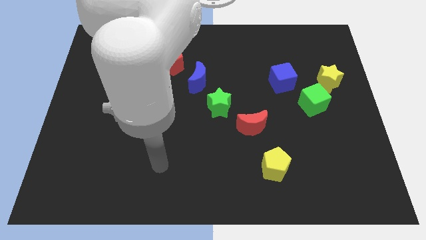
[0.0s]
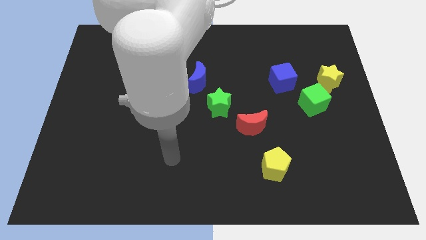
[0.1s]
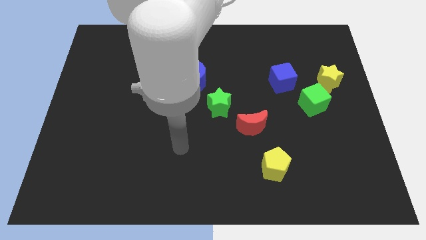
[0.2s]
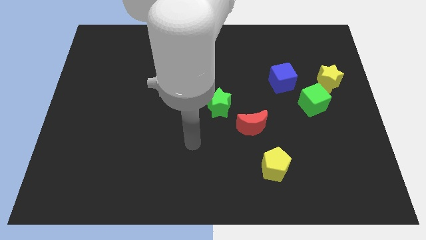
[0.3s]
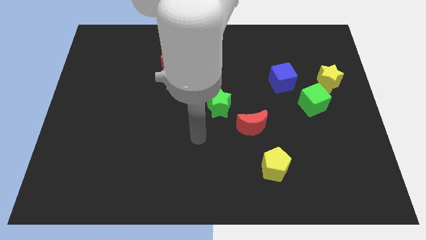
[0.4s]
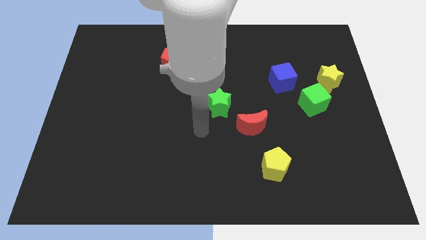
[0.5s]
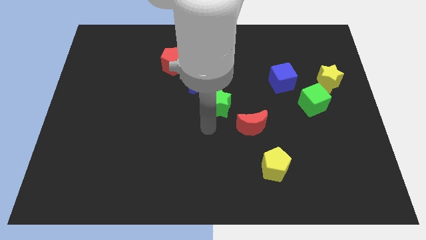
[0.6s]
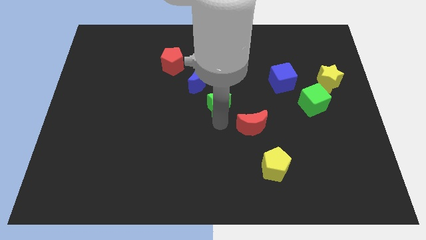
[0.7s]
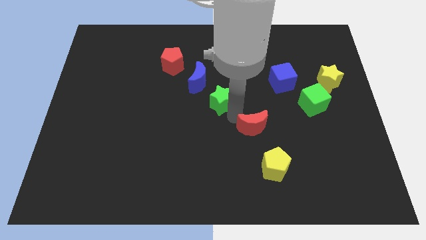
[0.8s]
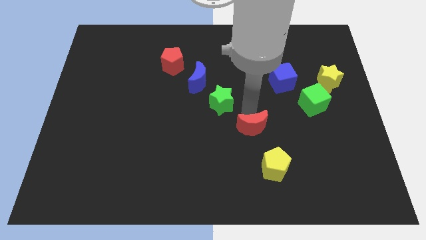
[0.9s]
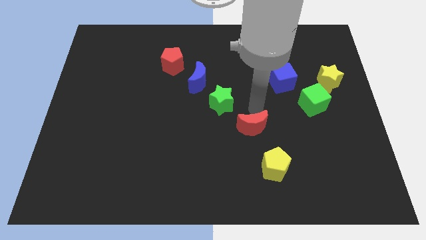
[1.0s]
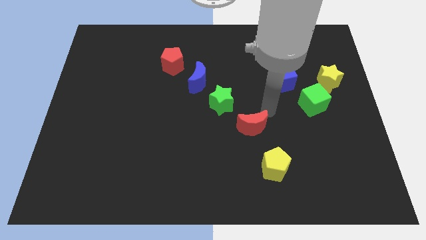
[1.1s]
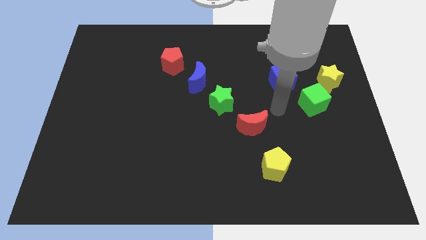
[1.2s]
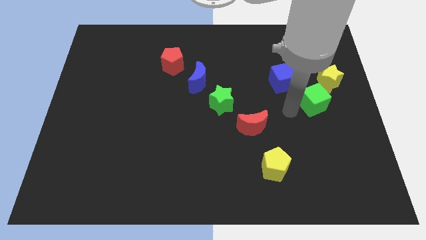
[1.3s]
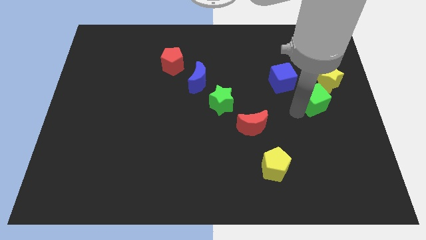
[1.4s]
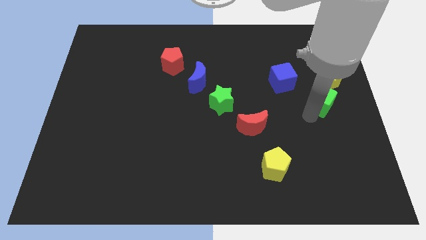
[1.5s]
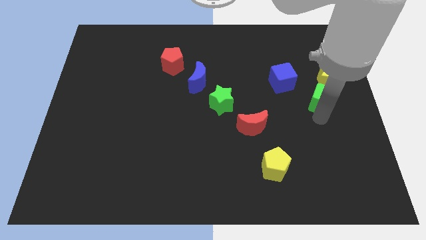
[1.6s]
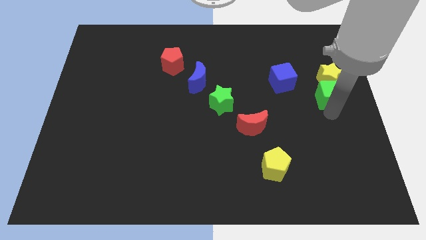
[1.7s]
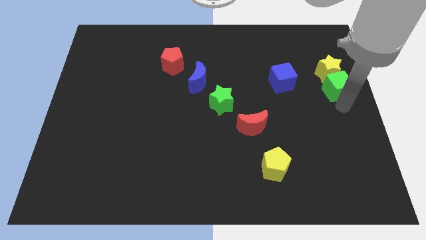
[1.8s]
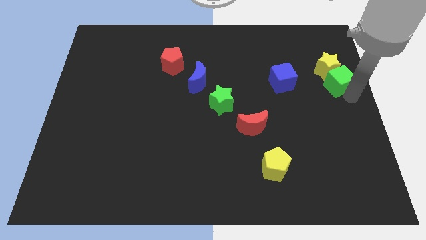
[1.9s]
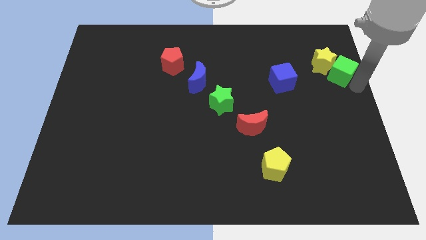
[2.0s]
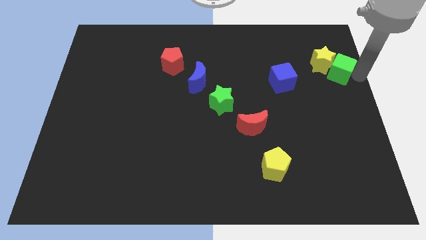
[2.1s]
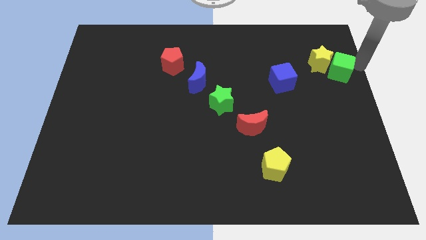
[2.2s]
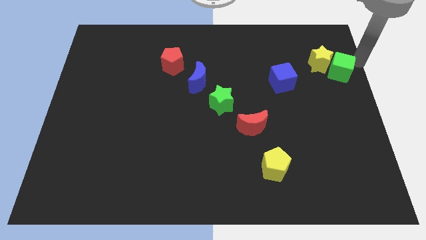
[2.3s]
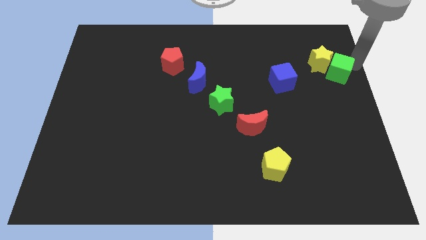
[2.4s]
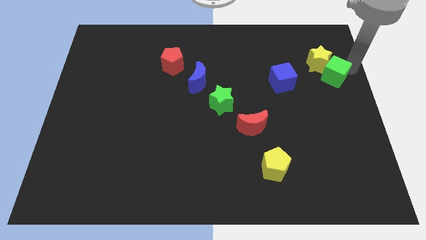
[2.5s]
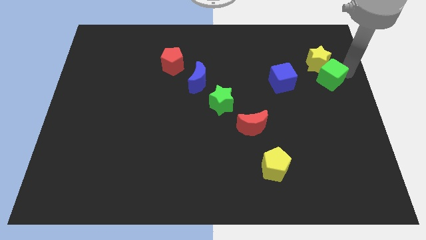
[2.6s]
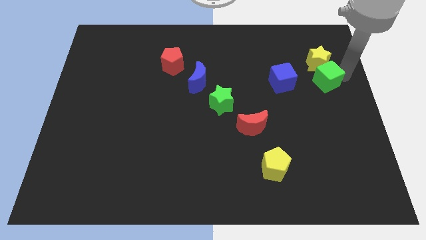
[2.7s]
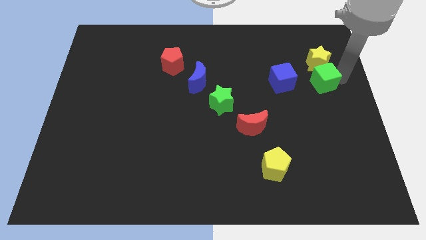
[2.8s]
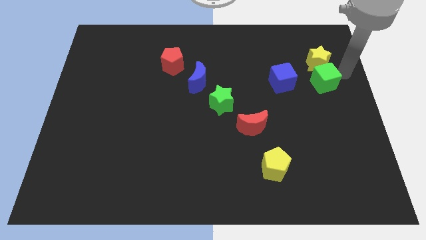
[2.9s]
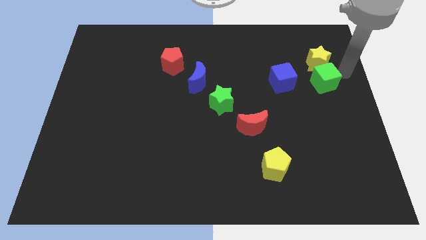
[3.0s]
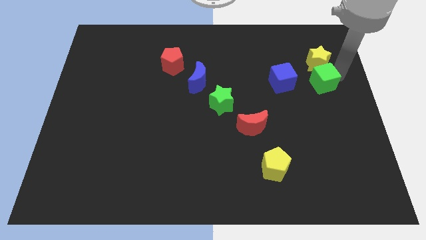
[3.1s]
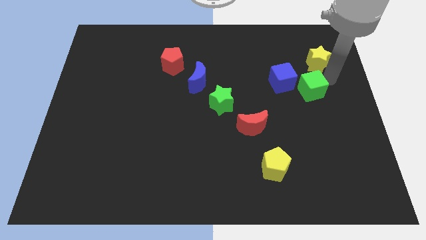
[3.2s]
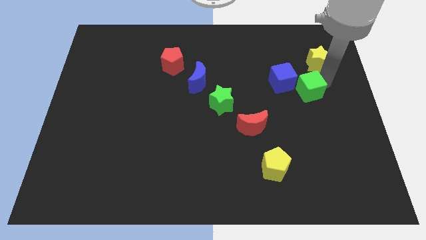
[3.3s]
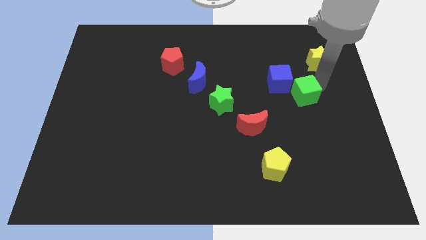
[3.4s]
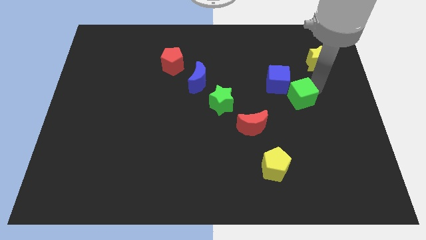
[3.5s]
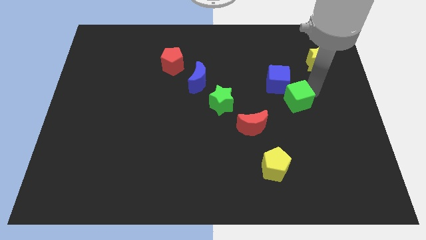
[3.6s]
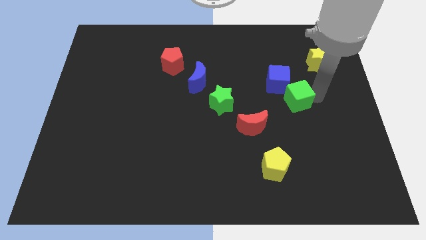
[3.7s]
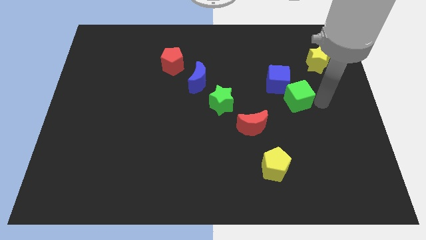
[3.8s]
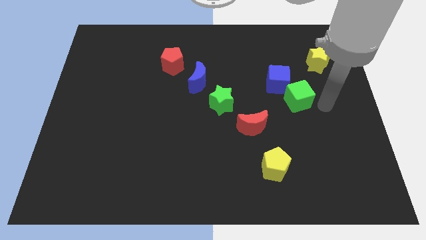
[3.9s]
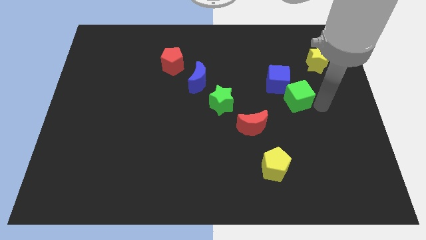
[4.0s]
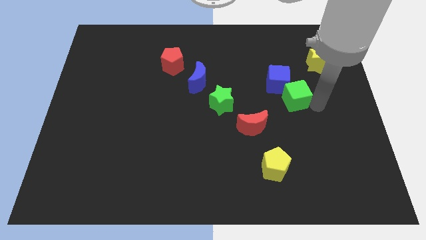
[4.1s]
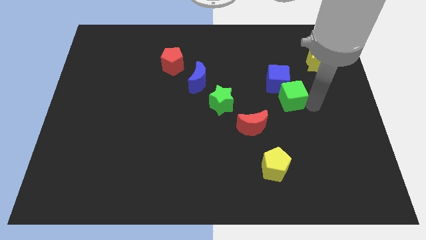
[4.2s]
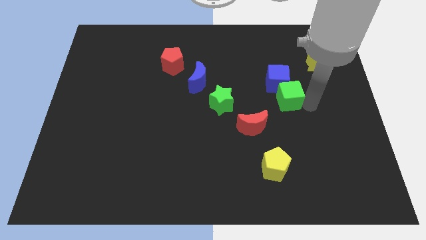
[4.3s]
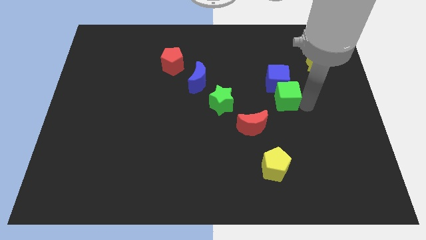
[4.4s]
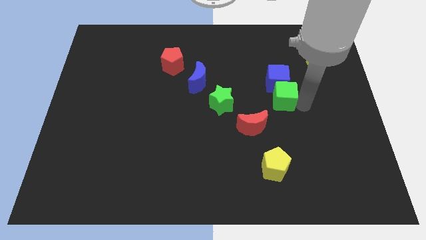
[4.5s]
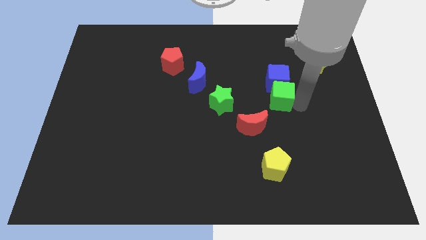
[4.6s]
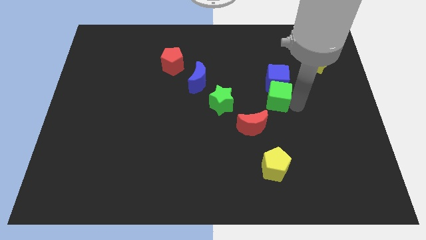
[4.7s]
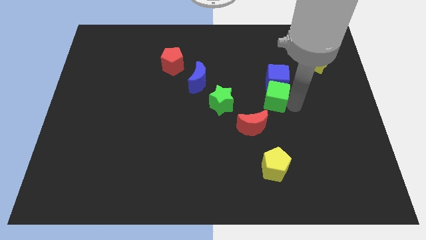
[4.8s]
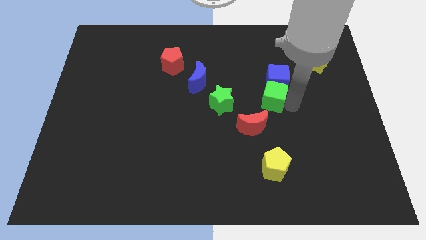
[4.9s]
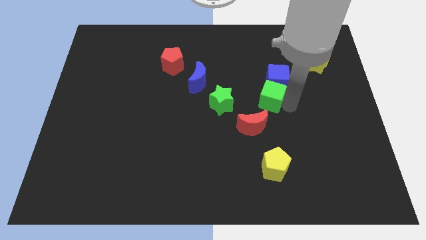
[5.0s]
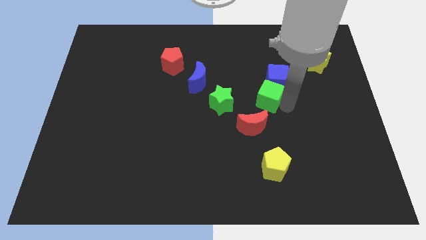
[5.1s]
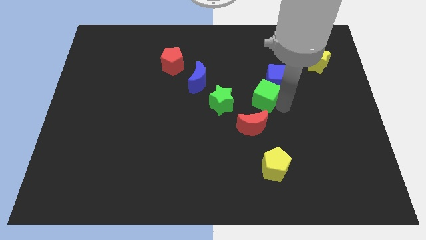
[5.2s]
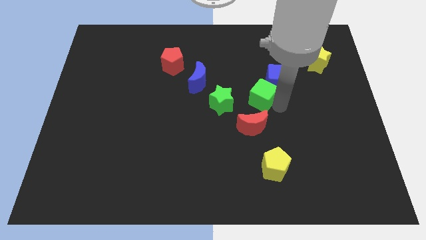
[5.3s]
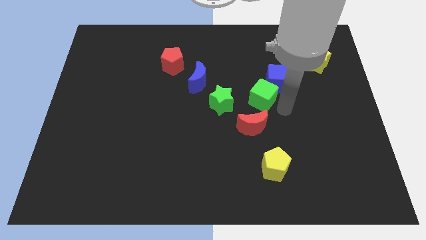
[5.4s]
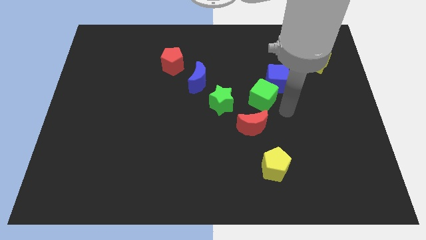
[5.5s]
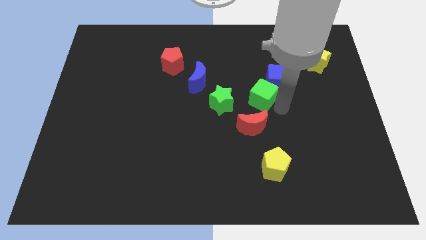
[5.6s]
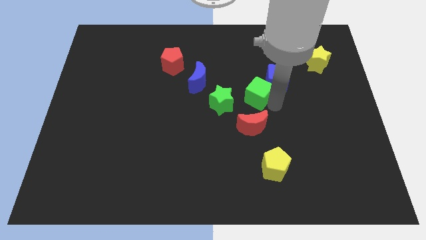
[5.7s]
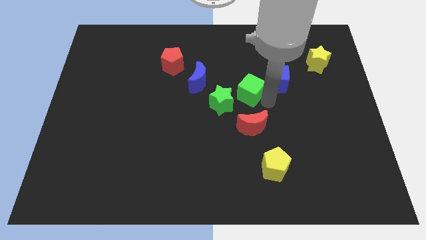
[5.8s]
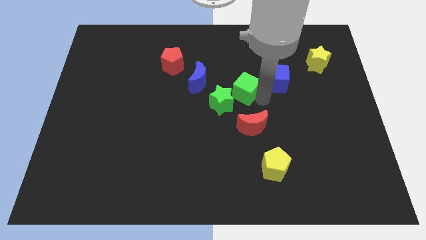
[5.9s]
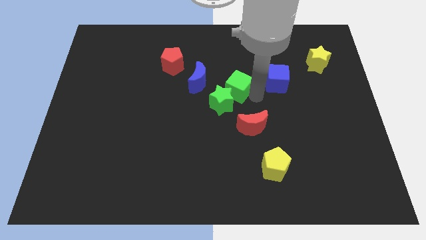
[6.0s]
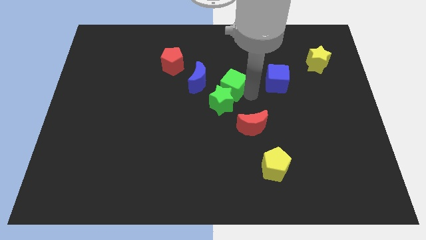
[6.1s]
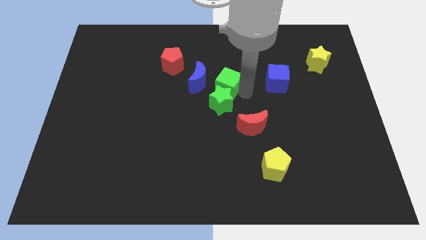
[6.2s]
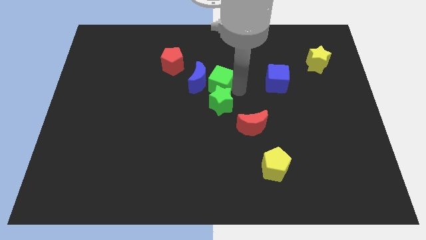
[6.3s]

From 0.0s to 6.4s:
slide the green cube to the blue moon
